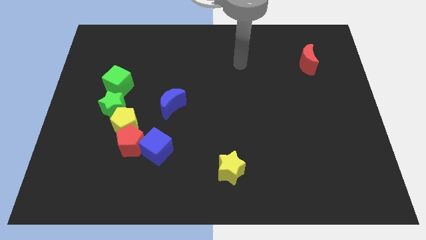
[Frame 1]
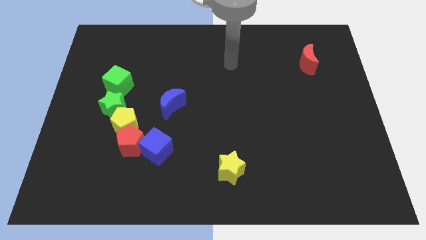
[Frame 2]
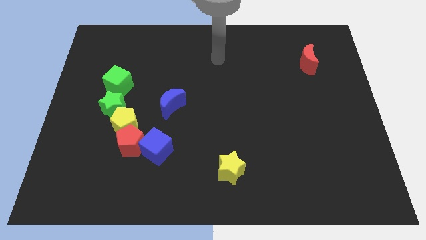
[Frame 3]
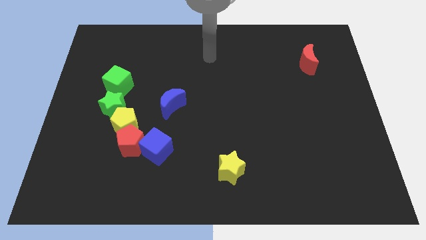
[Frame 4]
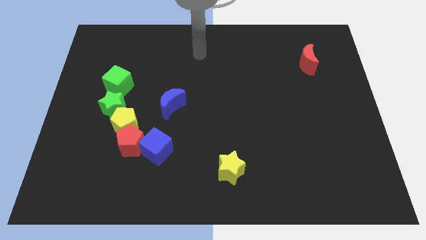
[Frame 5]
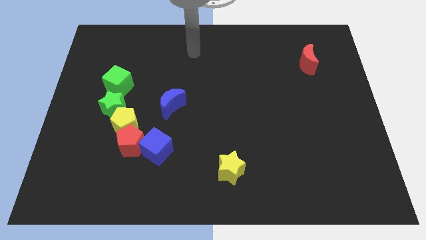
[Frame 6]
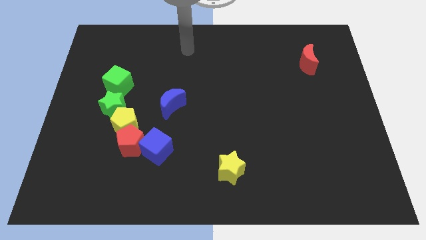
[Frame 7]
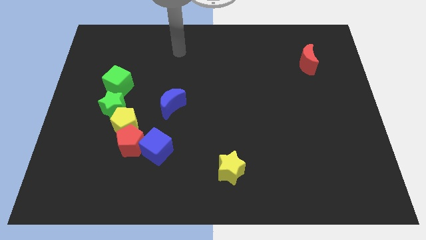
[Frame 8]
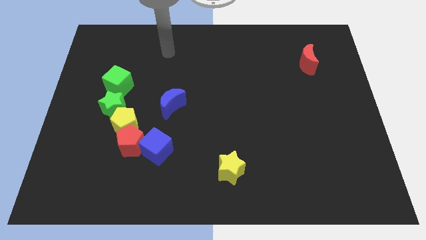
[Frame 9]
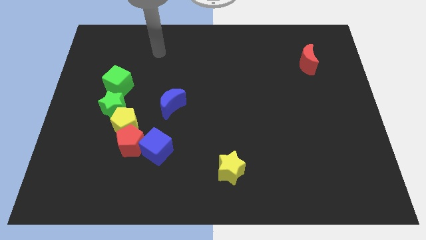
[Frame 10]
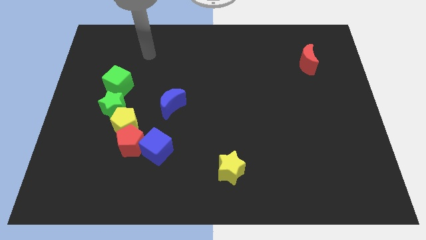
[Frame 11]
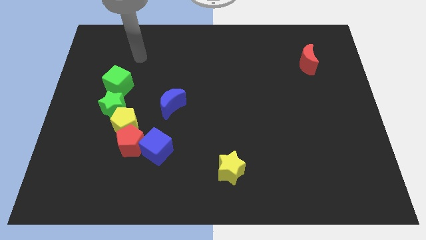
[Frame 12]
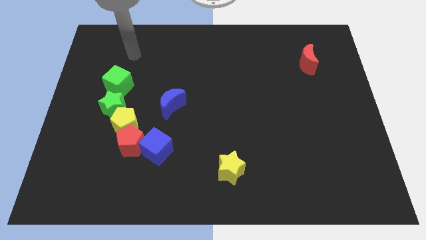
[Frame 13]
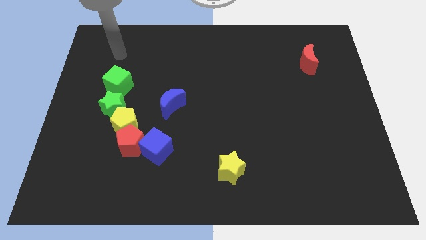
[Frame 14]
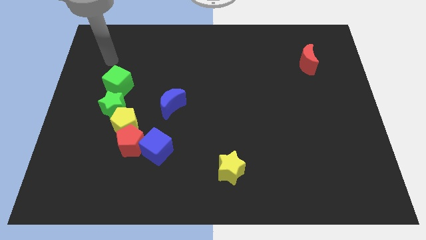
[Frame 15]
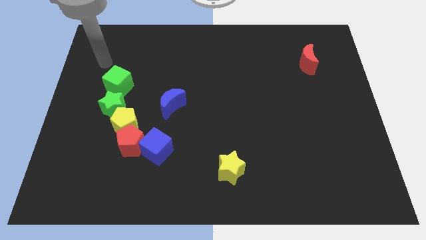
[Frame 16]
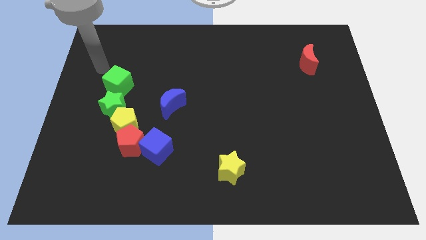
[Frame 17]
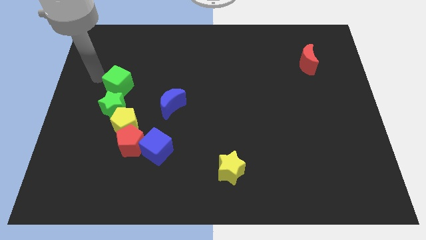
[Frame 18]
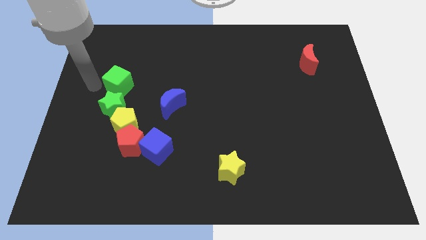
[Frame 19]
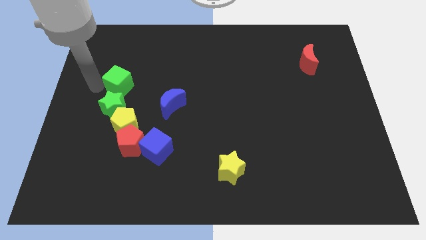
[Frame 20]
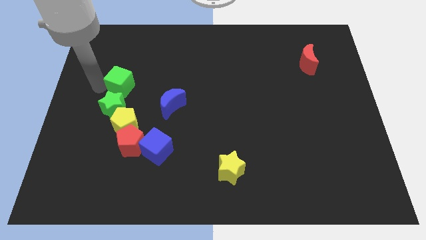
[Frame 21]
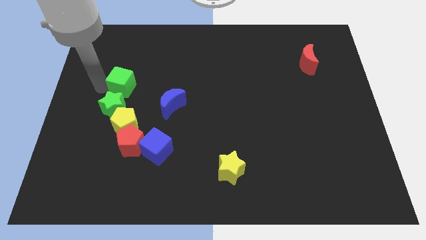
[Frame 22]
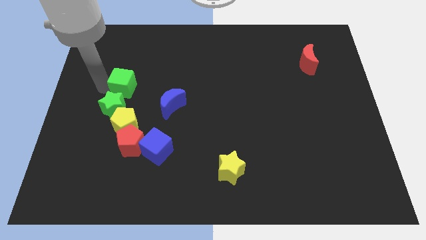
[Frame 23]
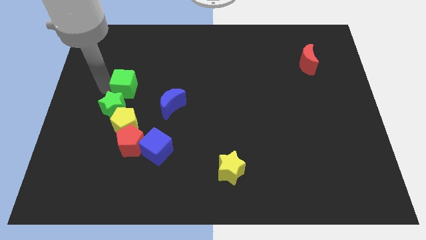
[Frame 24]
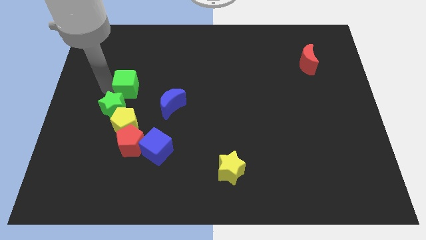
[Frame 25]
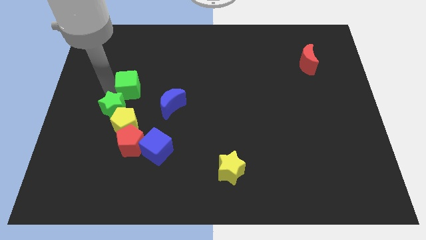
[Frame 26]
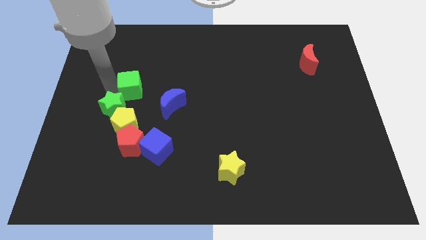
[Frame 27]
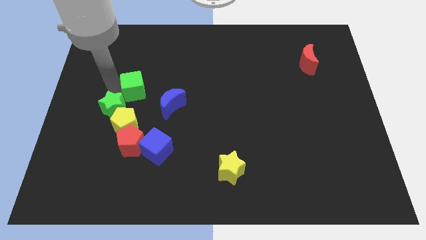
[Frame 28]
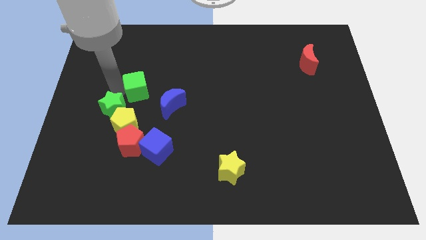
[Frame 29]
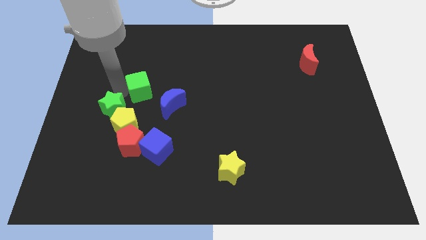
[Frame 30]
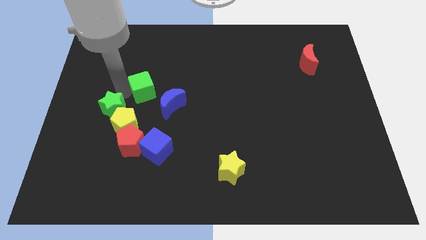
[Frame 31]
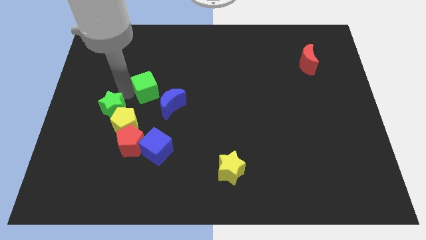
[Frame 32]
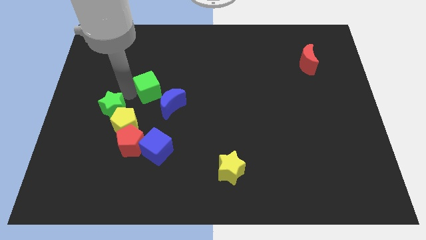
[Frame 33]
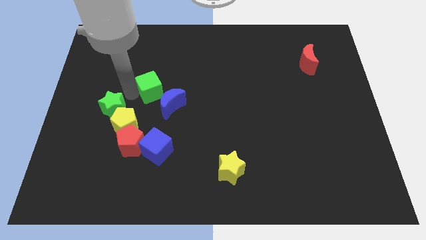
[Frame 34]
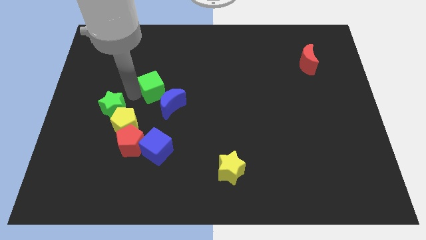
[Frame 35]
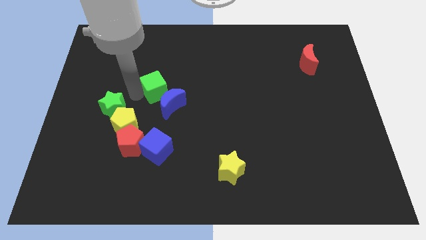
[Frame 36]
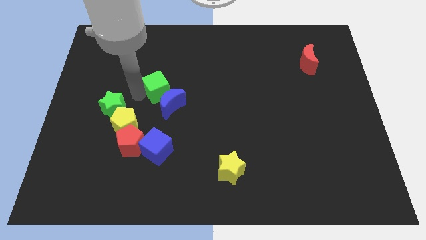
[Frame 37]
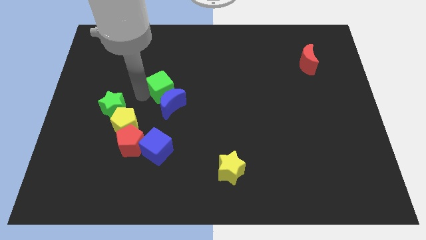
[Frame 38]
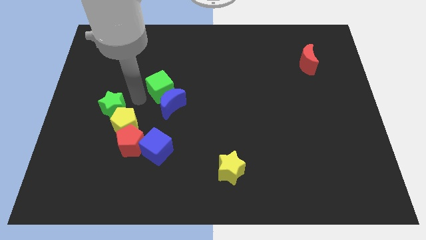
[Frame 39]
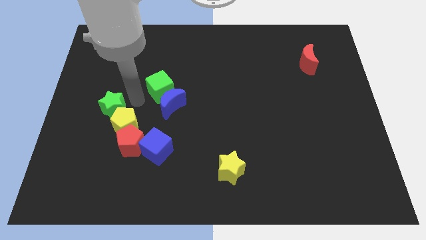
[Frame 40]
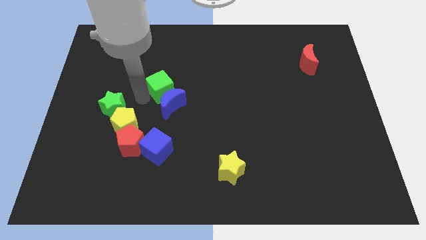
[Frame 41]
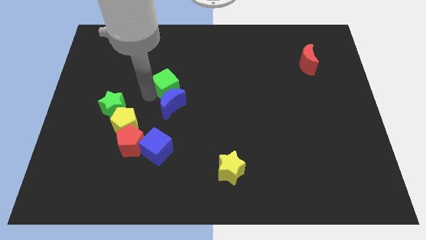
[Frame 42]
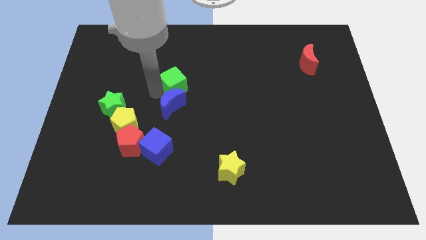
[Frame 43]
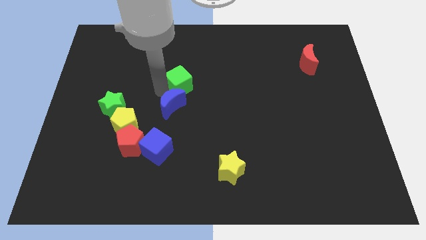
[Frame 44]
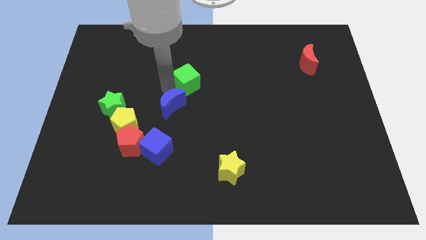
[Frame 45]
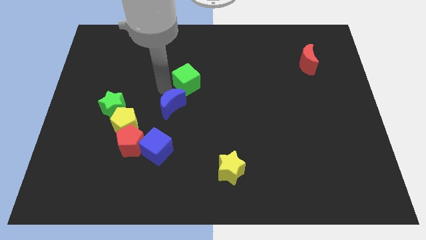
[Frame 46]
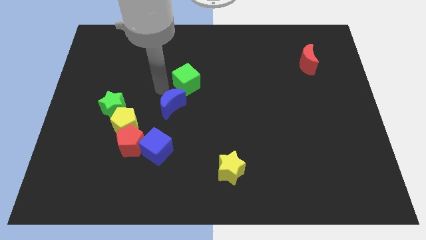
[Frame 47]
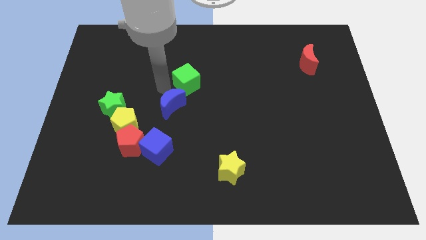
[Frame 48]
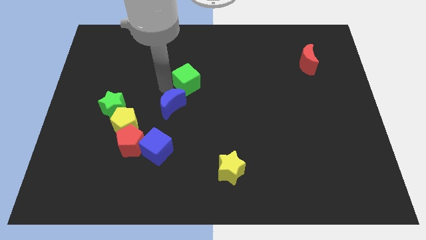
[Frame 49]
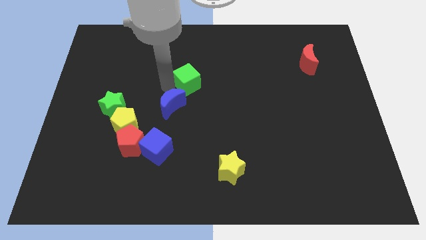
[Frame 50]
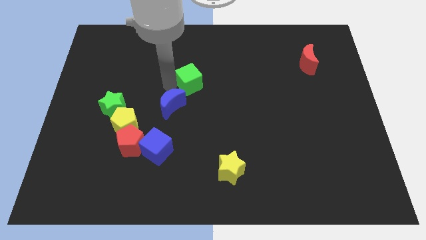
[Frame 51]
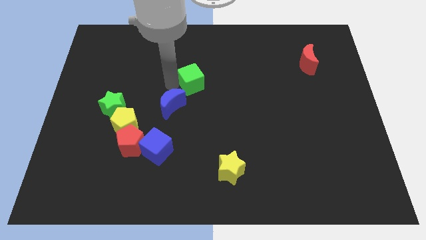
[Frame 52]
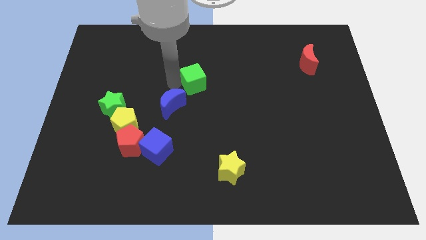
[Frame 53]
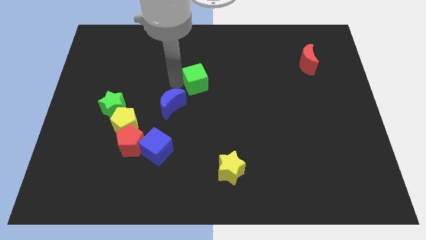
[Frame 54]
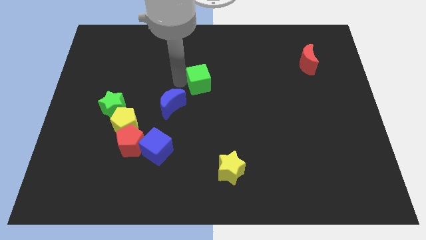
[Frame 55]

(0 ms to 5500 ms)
move the green cube to the right

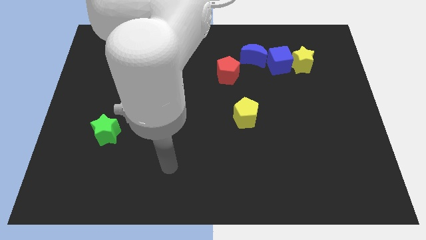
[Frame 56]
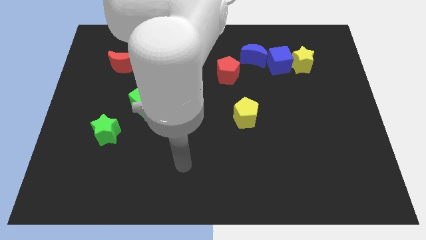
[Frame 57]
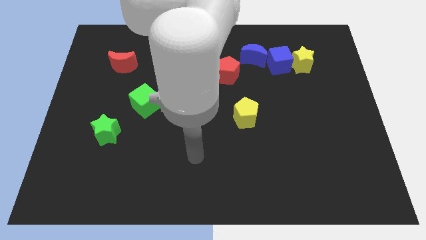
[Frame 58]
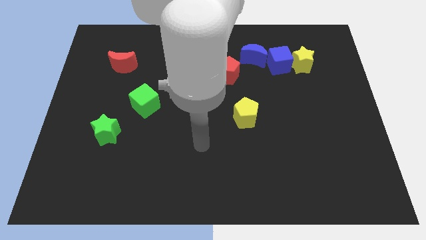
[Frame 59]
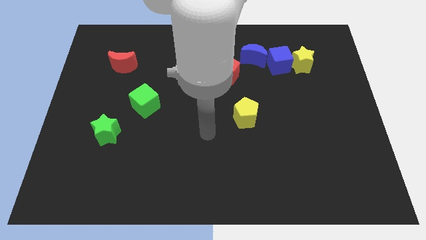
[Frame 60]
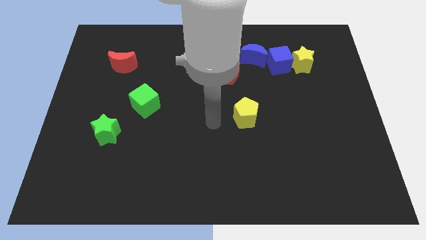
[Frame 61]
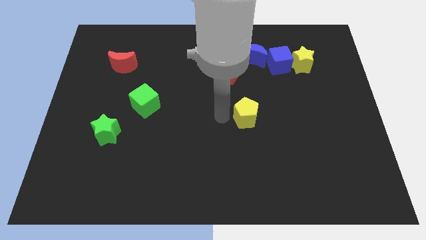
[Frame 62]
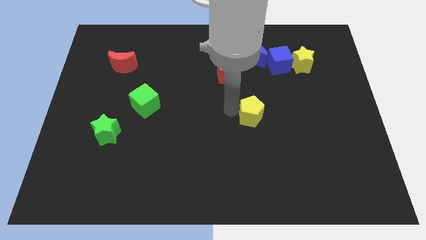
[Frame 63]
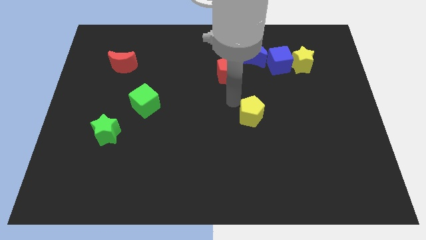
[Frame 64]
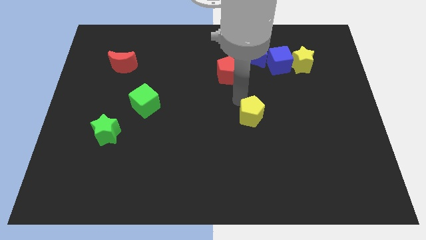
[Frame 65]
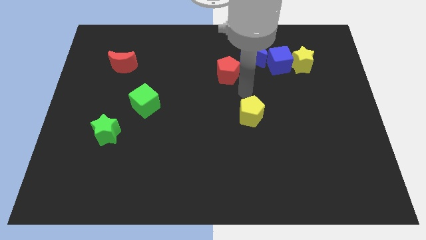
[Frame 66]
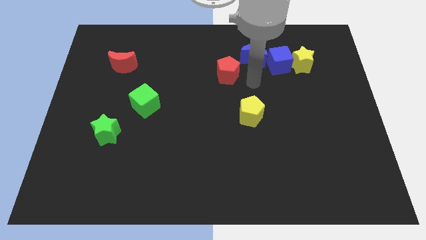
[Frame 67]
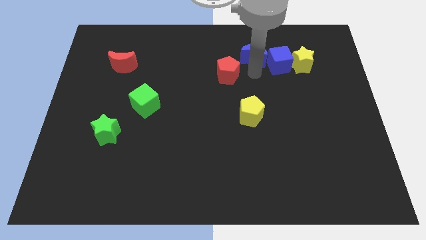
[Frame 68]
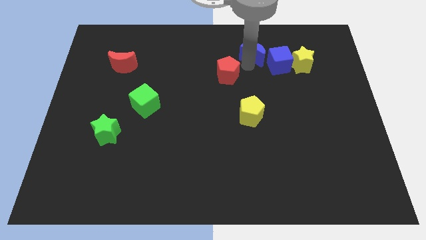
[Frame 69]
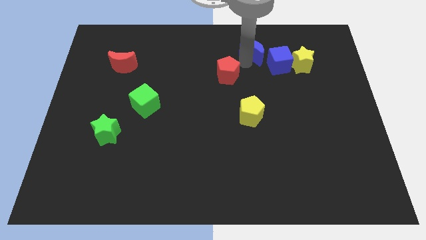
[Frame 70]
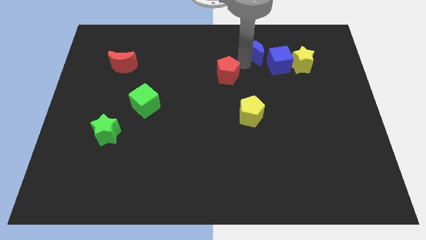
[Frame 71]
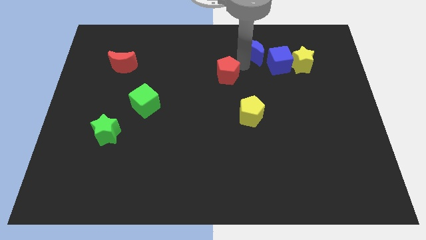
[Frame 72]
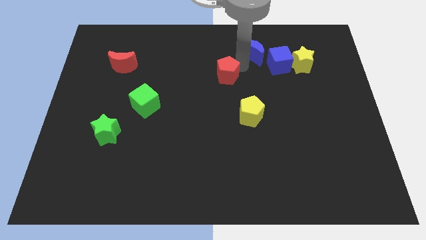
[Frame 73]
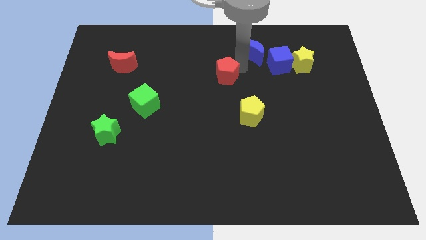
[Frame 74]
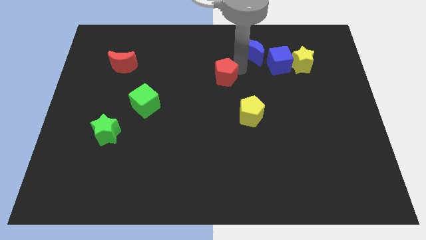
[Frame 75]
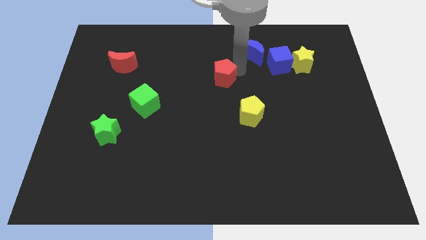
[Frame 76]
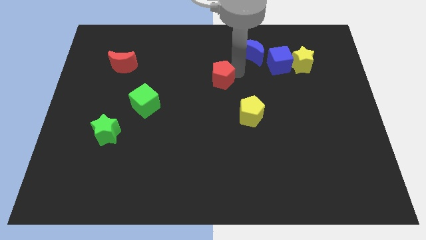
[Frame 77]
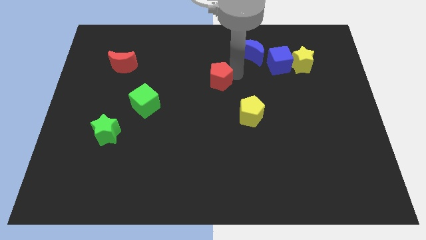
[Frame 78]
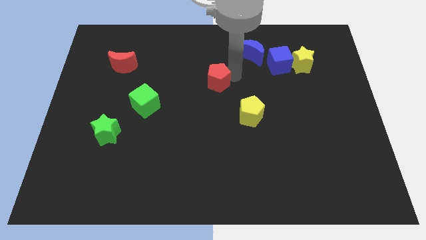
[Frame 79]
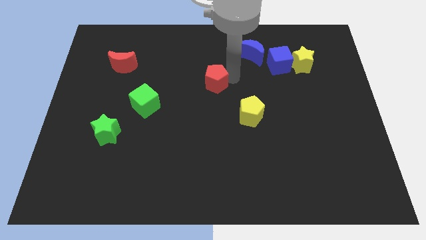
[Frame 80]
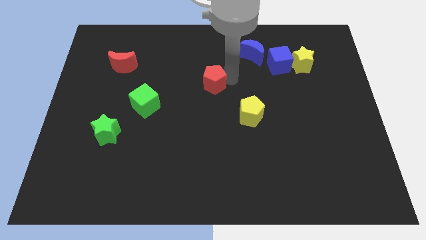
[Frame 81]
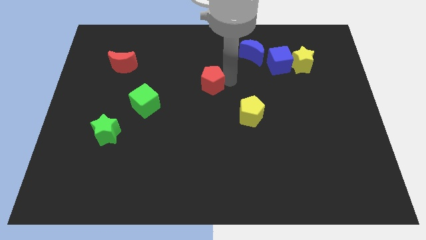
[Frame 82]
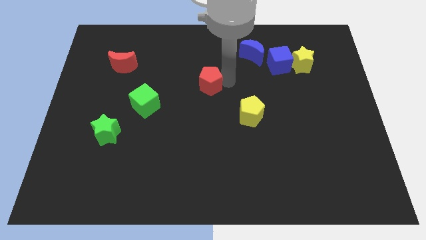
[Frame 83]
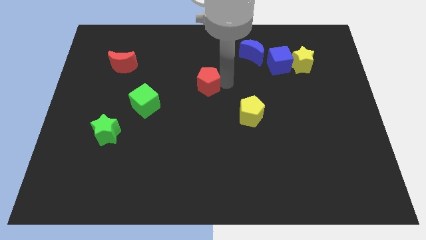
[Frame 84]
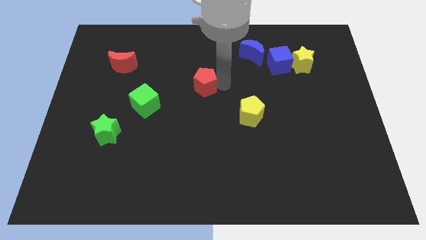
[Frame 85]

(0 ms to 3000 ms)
move the red pentagon diagonally down and to the left a bit
